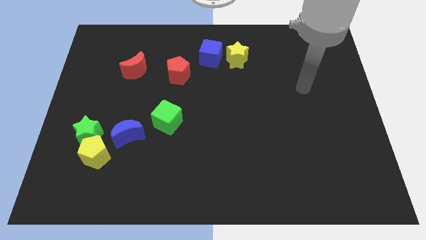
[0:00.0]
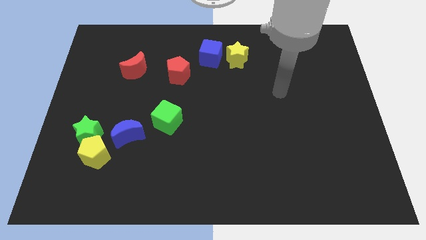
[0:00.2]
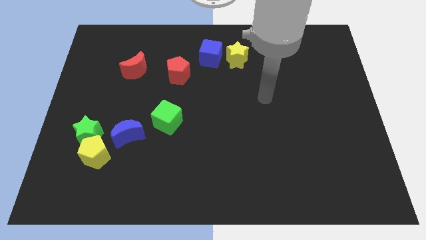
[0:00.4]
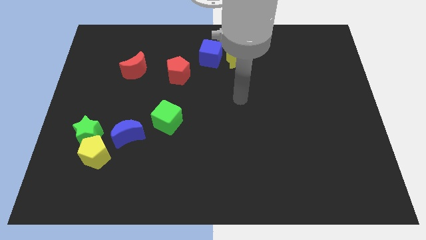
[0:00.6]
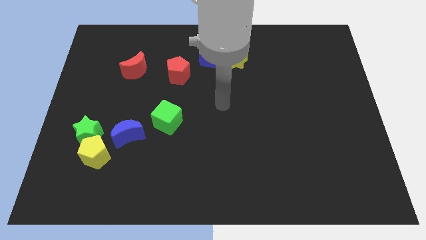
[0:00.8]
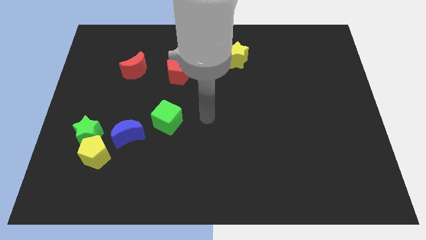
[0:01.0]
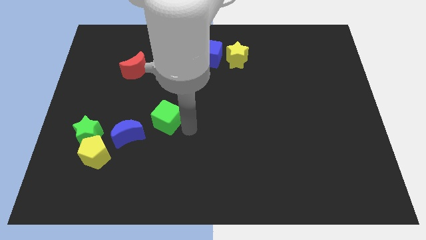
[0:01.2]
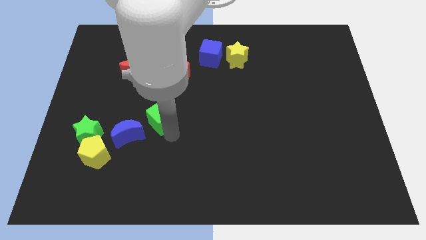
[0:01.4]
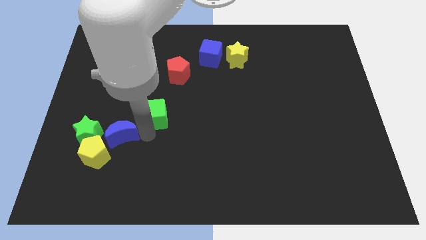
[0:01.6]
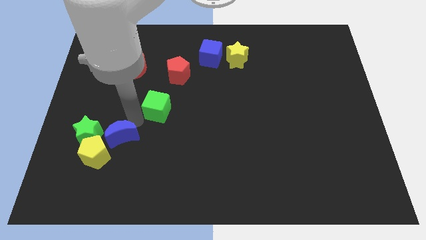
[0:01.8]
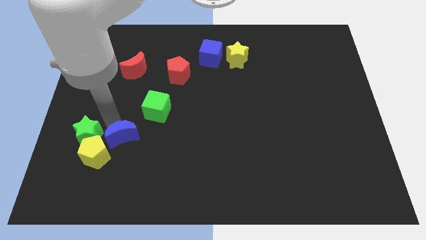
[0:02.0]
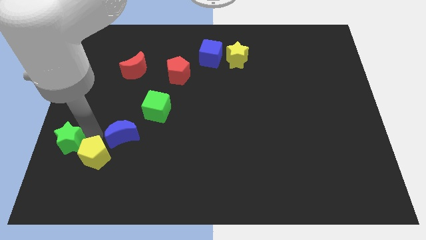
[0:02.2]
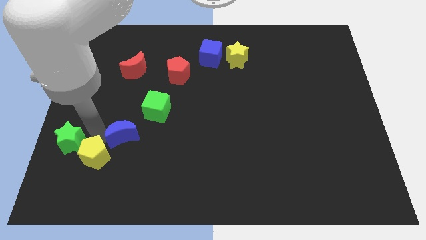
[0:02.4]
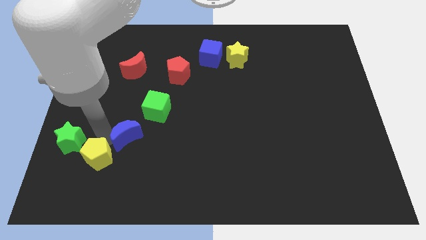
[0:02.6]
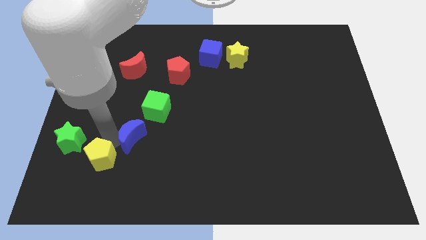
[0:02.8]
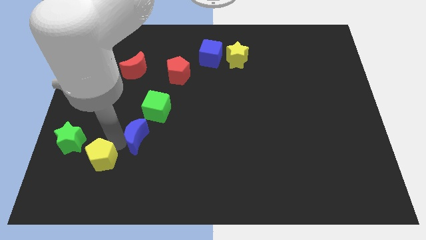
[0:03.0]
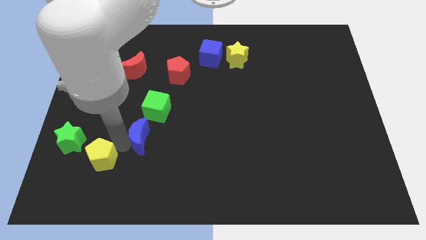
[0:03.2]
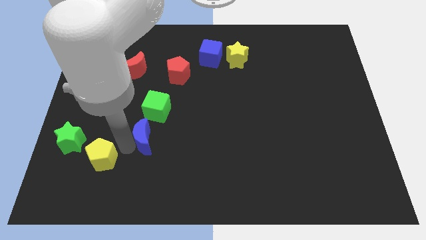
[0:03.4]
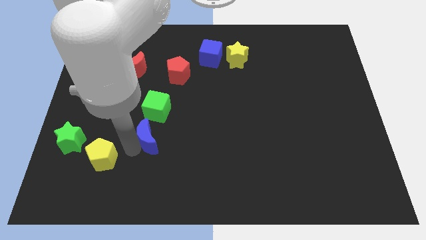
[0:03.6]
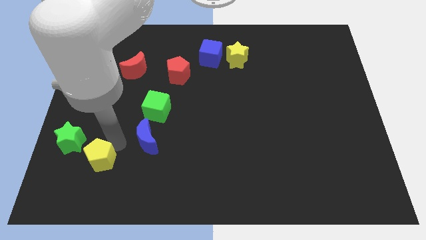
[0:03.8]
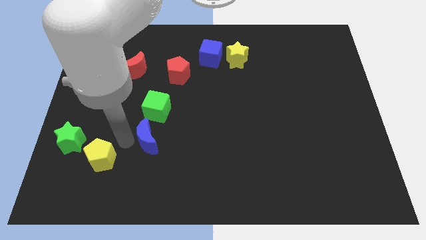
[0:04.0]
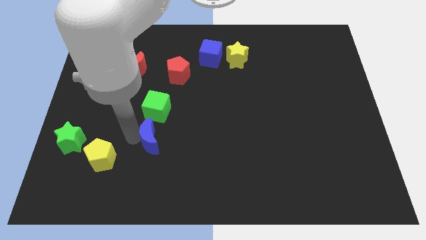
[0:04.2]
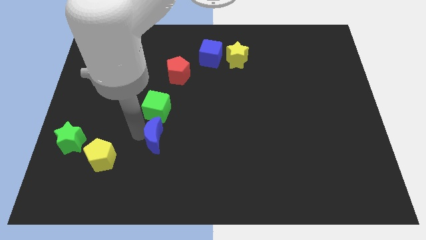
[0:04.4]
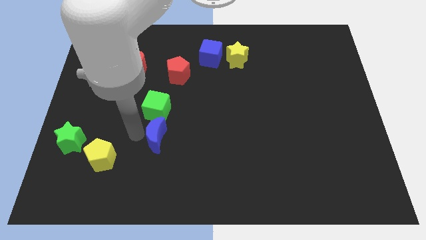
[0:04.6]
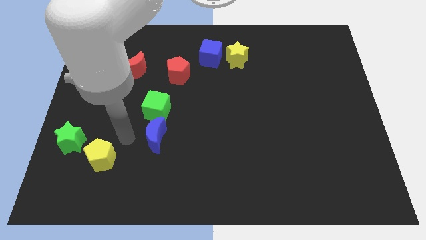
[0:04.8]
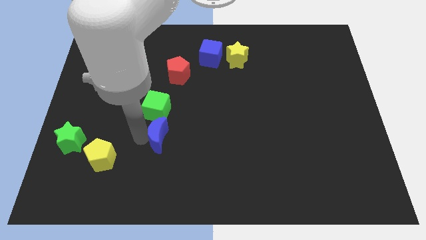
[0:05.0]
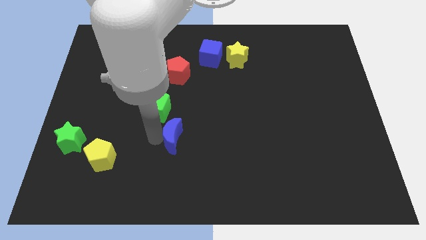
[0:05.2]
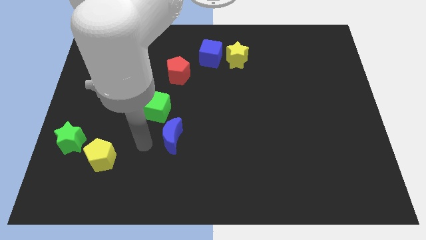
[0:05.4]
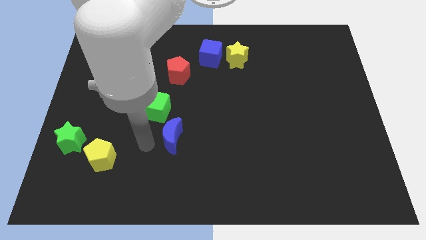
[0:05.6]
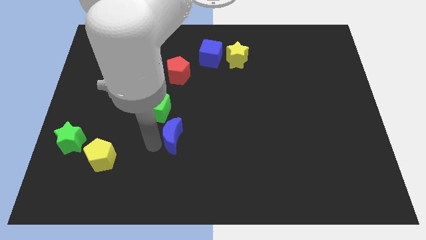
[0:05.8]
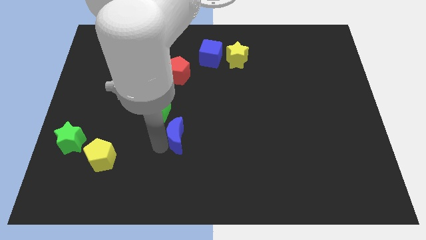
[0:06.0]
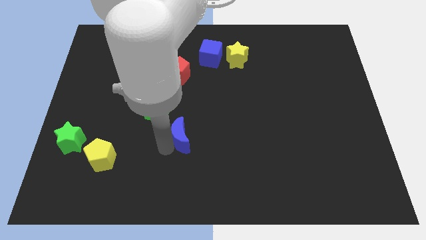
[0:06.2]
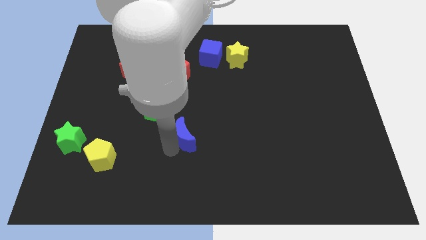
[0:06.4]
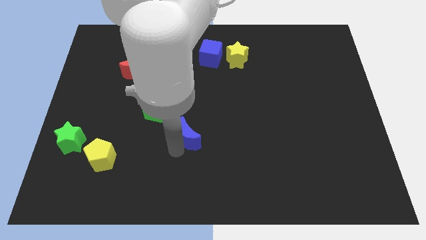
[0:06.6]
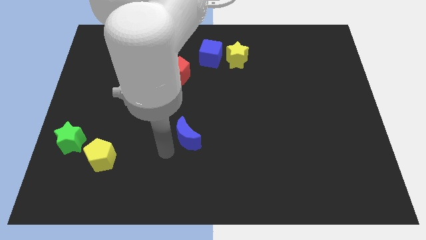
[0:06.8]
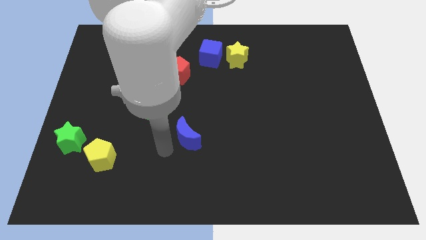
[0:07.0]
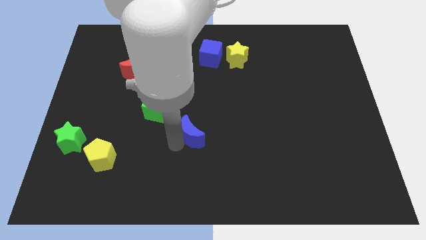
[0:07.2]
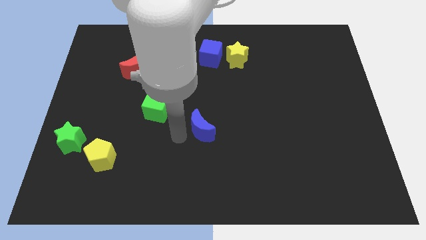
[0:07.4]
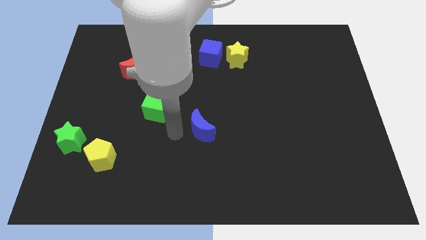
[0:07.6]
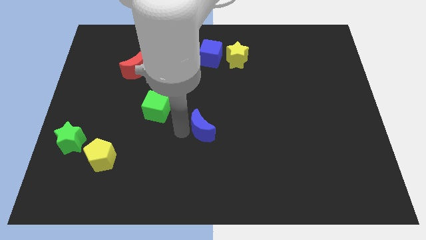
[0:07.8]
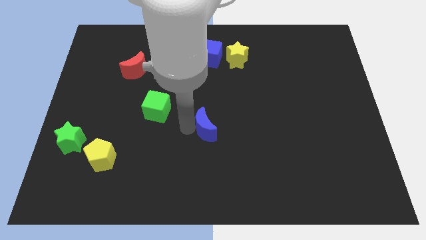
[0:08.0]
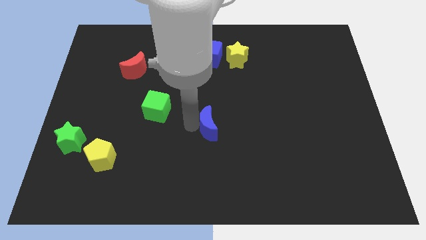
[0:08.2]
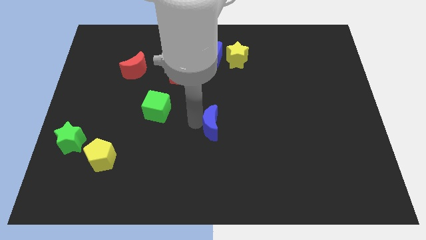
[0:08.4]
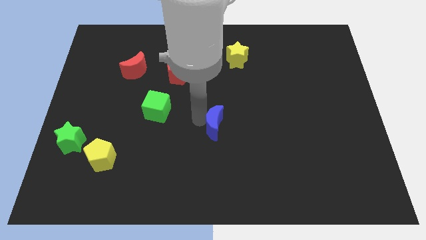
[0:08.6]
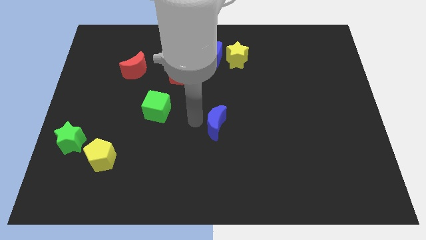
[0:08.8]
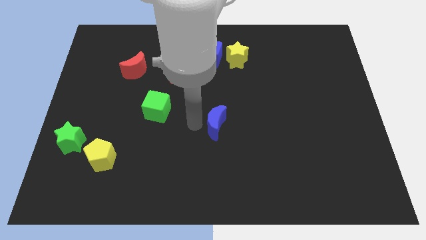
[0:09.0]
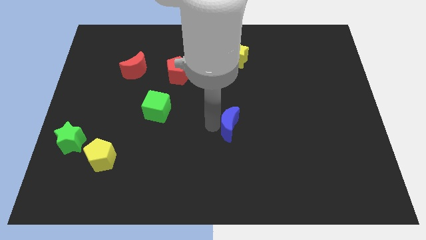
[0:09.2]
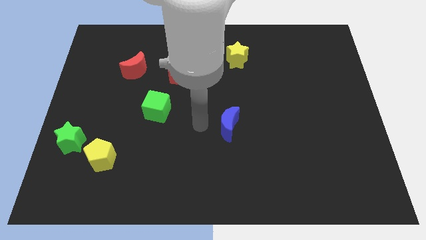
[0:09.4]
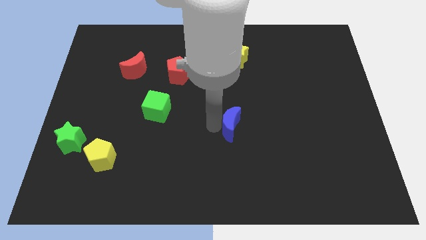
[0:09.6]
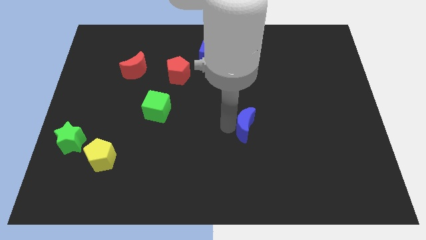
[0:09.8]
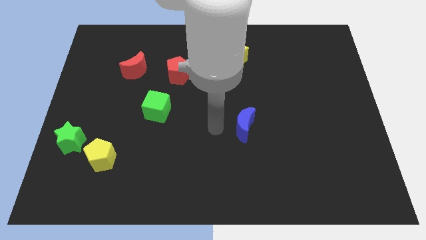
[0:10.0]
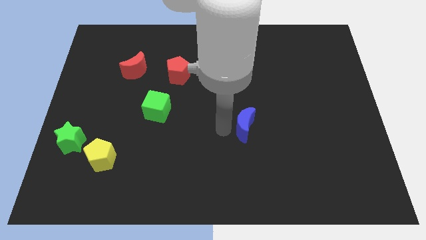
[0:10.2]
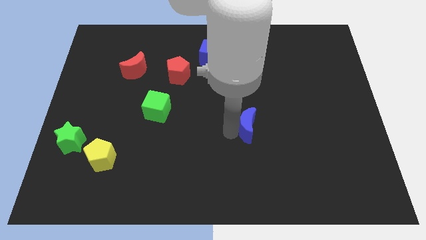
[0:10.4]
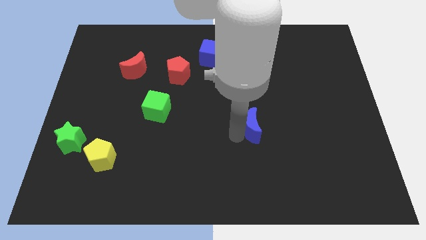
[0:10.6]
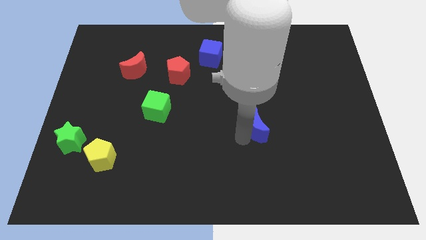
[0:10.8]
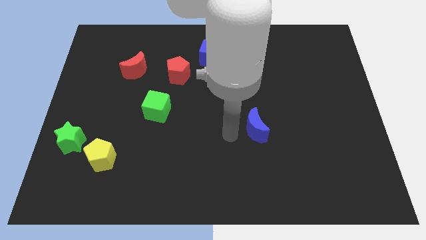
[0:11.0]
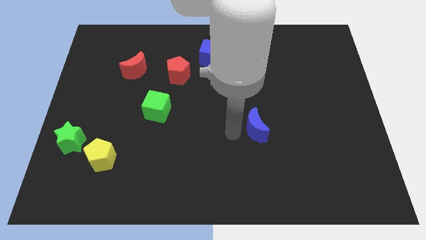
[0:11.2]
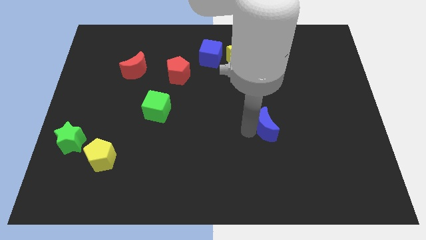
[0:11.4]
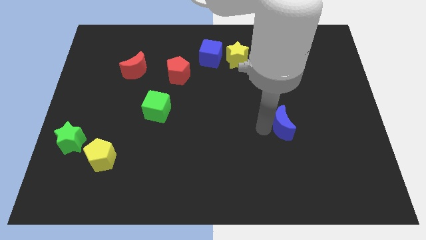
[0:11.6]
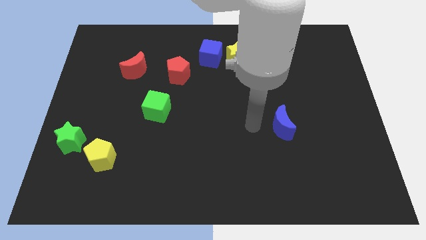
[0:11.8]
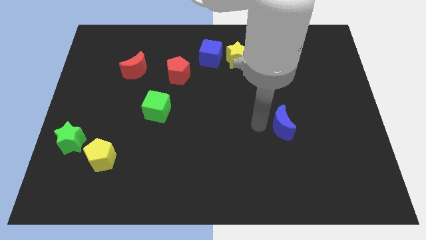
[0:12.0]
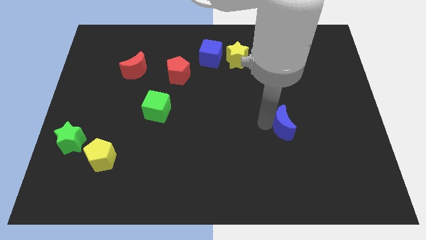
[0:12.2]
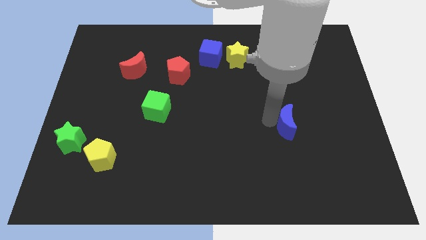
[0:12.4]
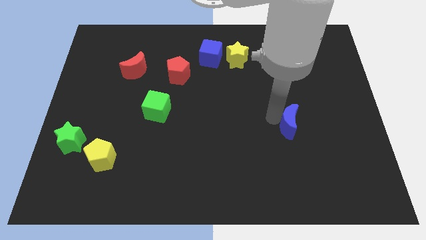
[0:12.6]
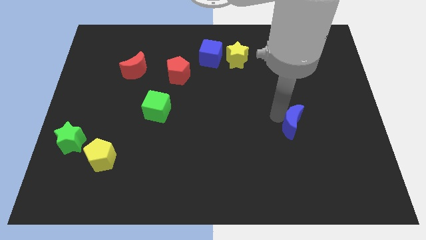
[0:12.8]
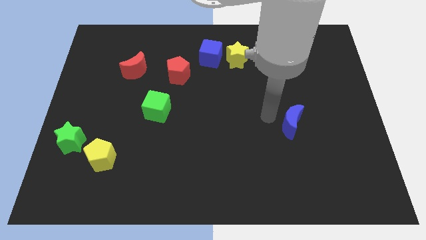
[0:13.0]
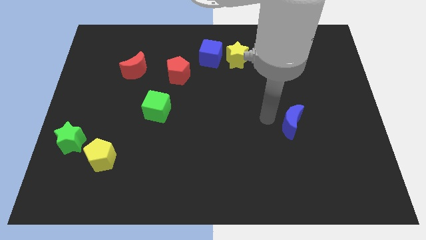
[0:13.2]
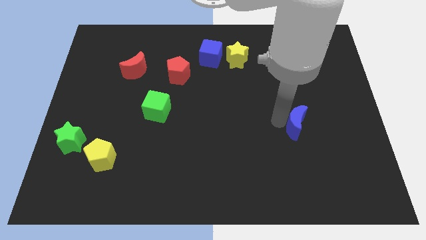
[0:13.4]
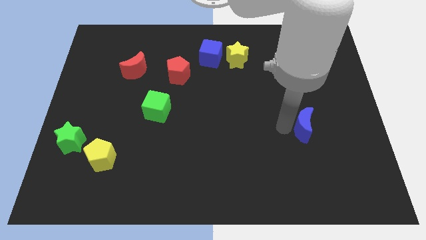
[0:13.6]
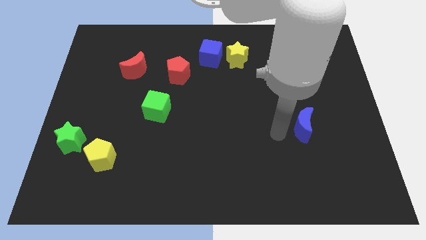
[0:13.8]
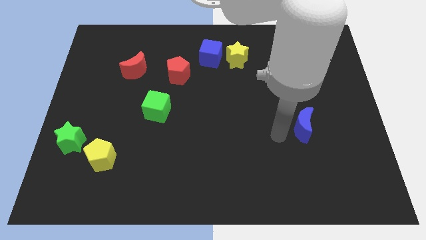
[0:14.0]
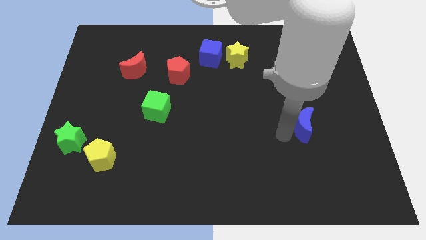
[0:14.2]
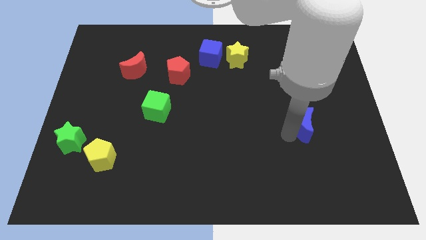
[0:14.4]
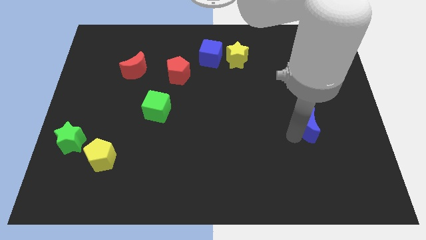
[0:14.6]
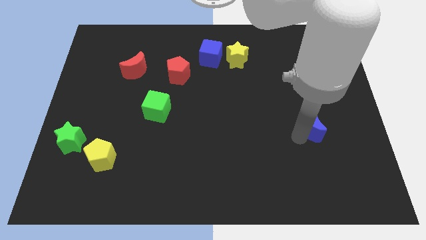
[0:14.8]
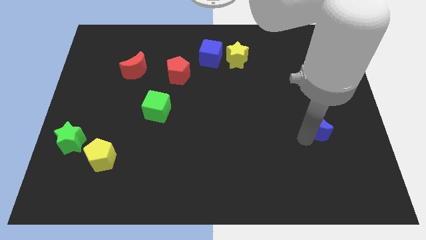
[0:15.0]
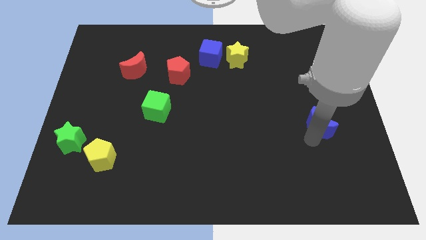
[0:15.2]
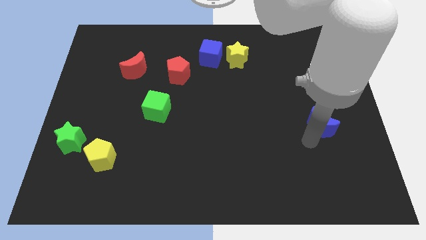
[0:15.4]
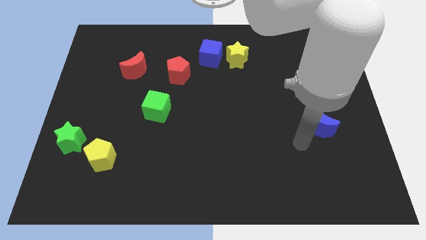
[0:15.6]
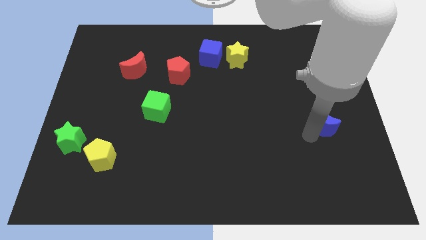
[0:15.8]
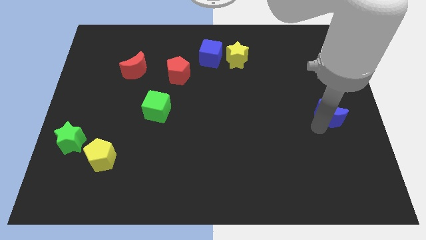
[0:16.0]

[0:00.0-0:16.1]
slide the blue moon to the right side
